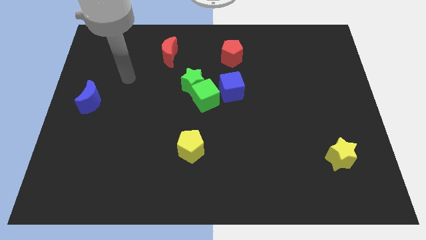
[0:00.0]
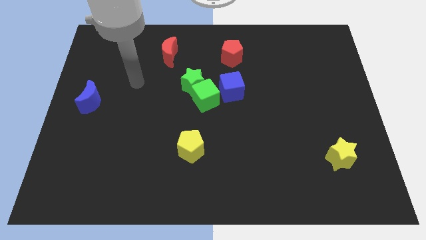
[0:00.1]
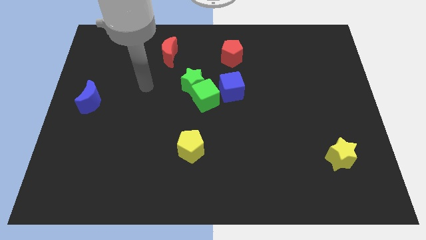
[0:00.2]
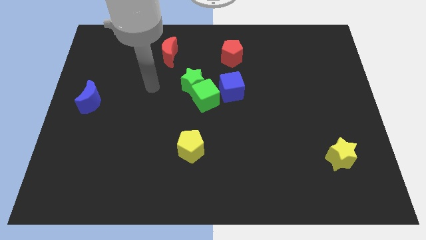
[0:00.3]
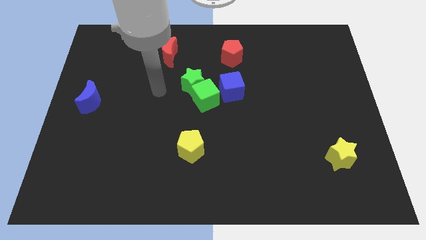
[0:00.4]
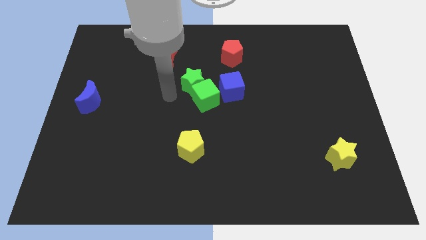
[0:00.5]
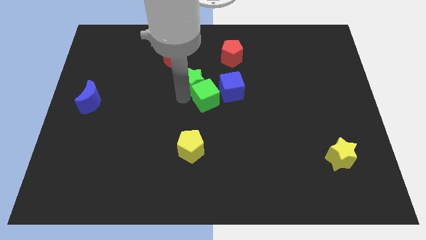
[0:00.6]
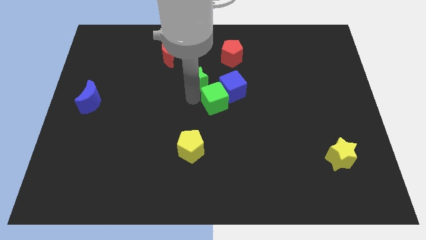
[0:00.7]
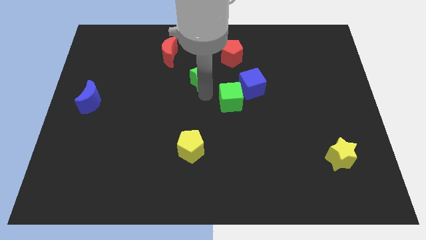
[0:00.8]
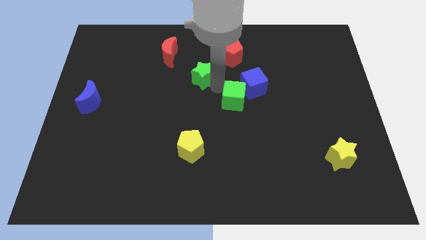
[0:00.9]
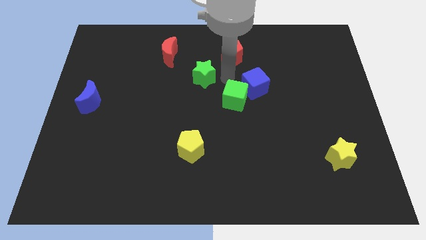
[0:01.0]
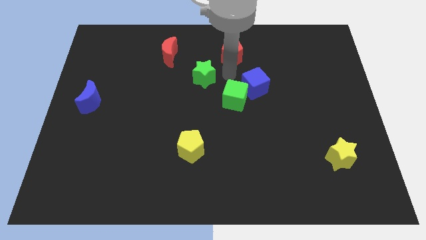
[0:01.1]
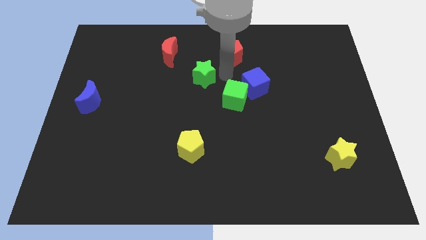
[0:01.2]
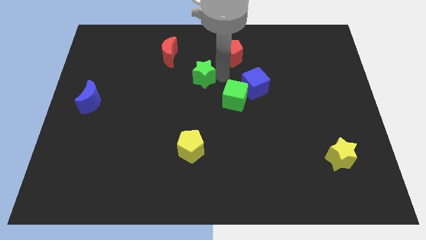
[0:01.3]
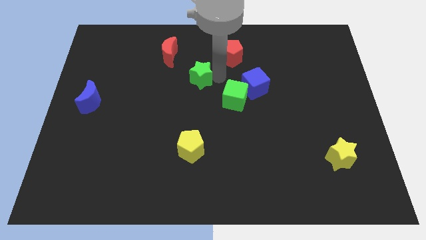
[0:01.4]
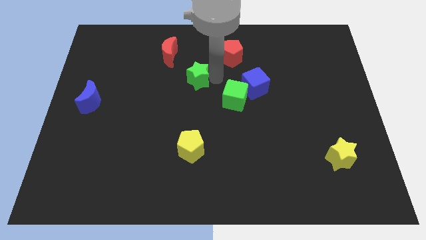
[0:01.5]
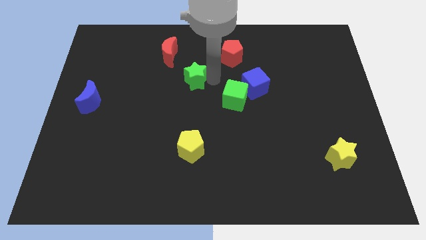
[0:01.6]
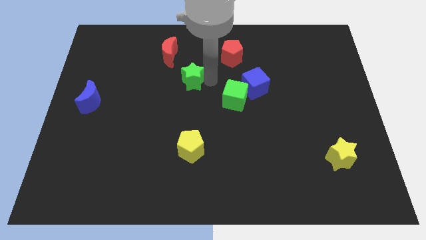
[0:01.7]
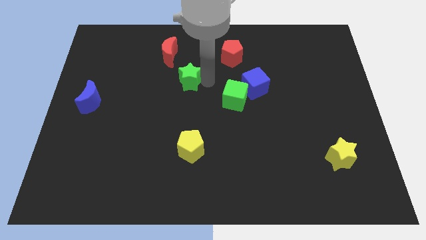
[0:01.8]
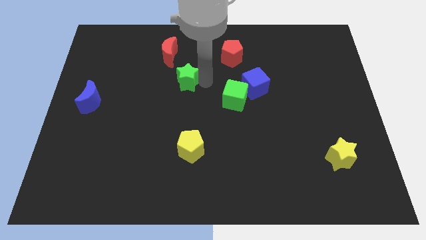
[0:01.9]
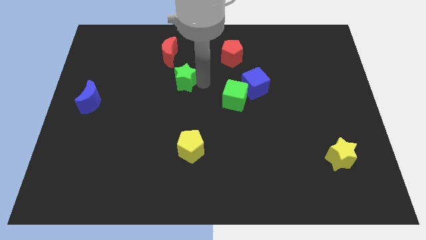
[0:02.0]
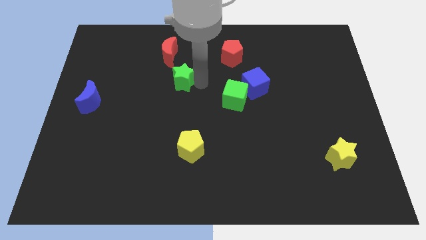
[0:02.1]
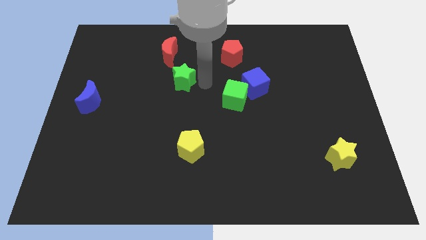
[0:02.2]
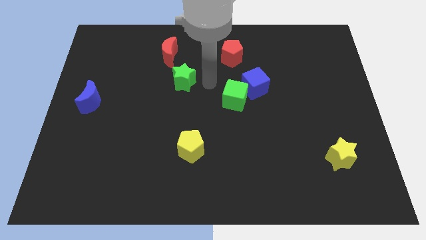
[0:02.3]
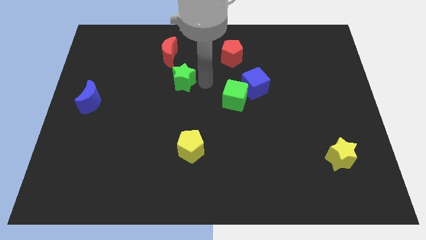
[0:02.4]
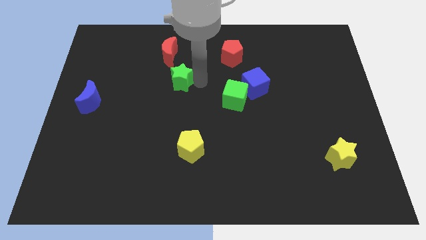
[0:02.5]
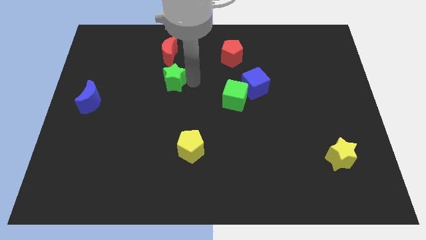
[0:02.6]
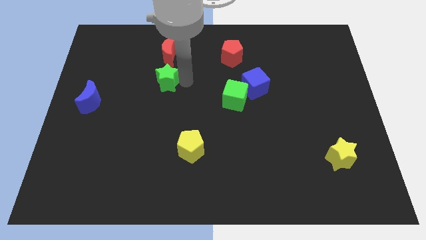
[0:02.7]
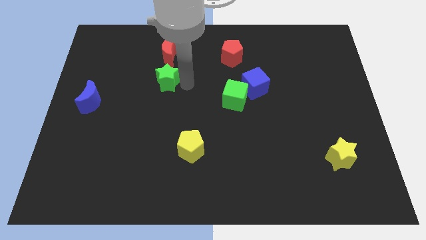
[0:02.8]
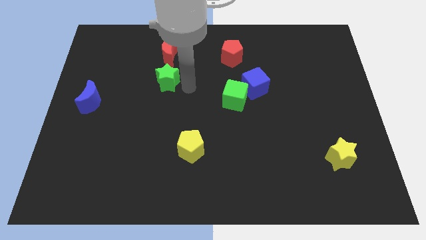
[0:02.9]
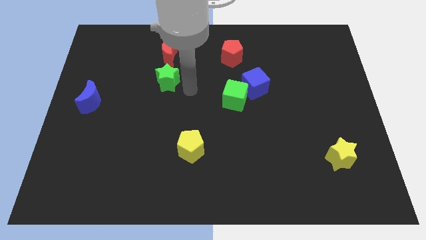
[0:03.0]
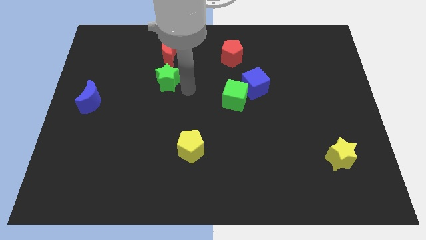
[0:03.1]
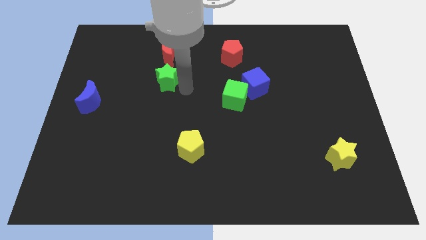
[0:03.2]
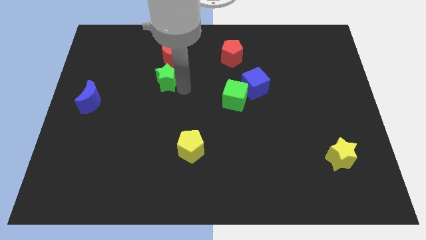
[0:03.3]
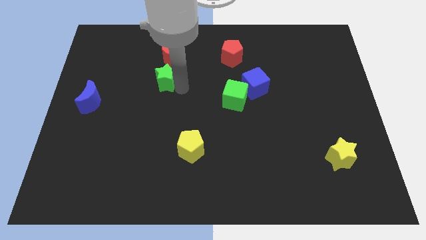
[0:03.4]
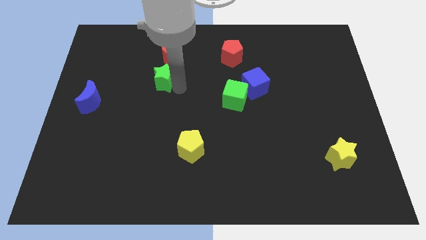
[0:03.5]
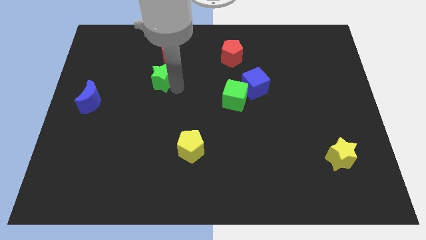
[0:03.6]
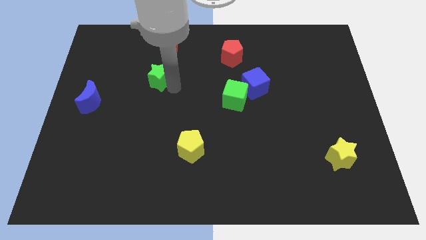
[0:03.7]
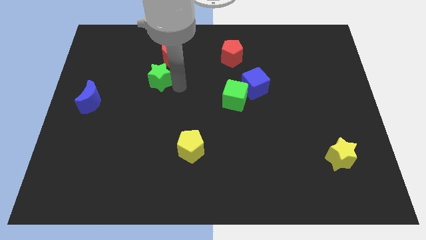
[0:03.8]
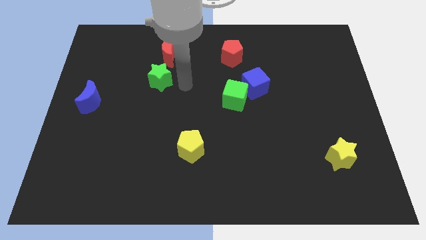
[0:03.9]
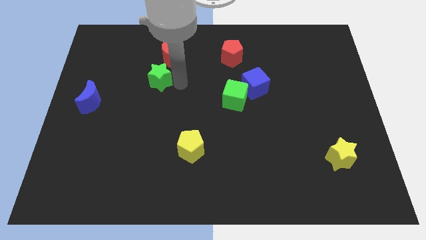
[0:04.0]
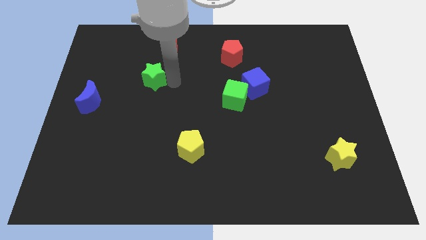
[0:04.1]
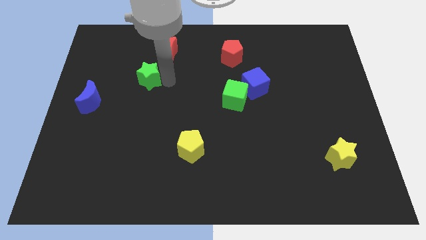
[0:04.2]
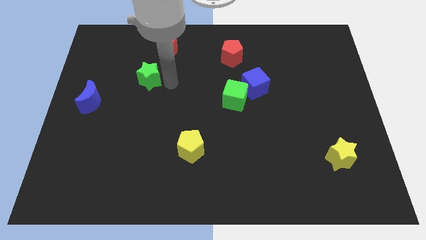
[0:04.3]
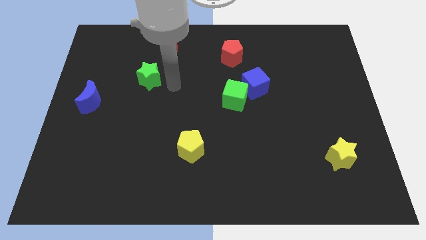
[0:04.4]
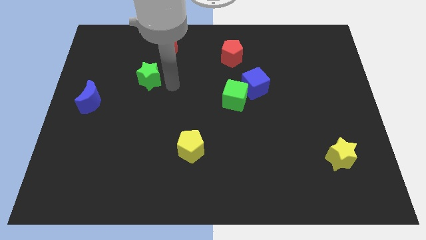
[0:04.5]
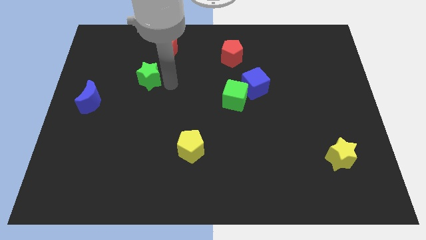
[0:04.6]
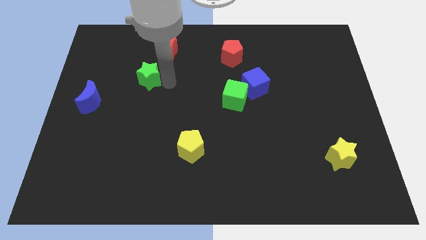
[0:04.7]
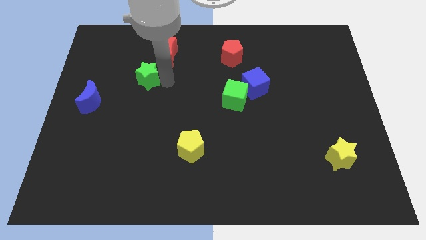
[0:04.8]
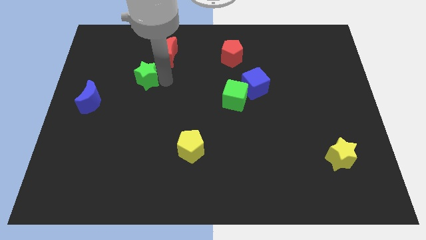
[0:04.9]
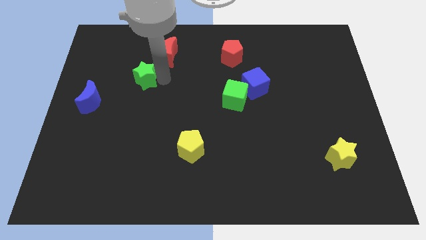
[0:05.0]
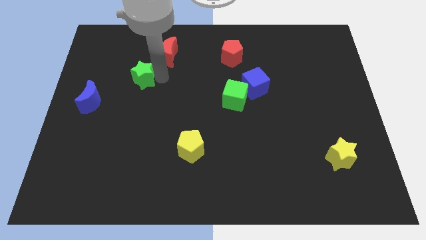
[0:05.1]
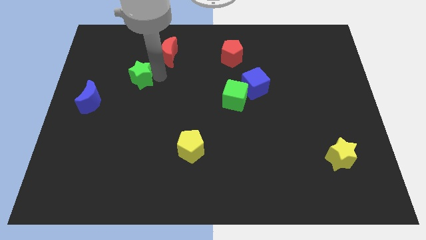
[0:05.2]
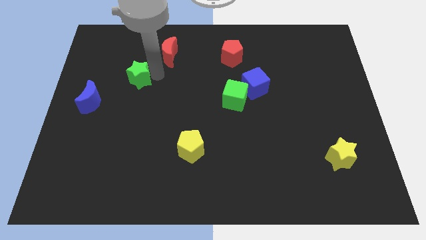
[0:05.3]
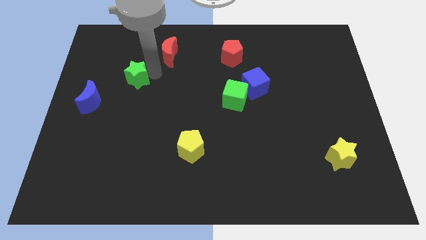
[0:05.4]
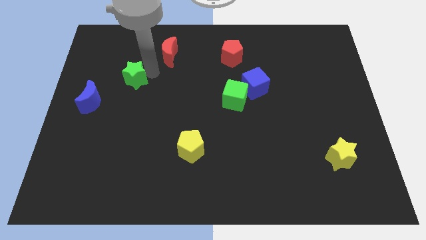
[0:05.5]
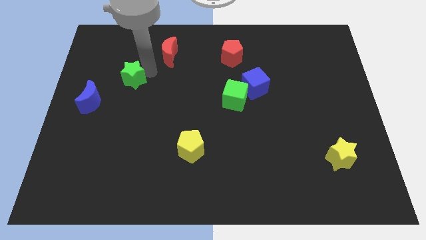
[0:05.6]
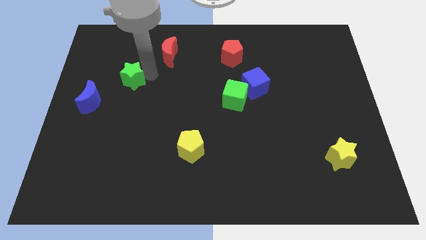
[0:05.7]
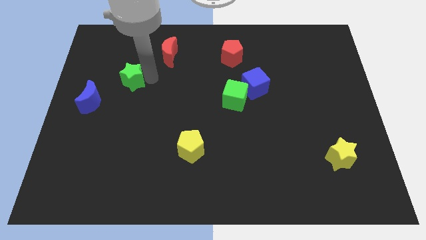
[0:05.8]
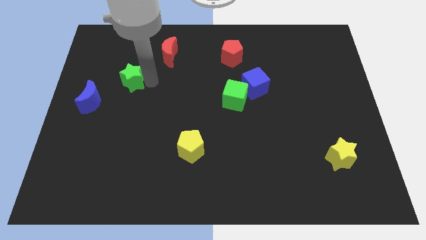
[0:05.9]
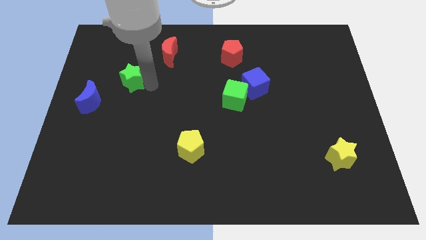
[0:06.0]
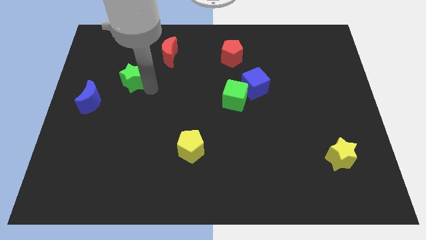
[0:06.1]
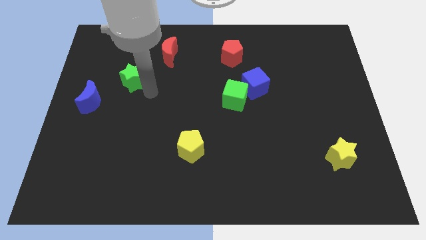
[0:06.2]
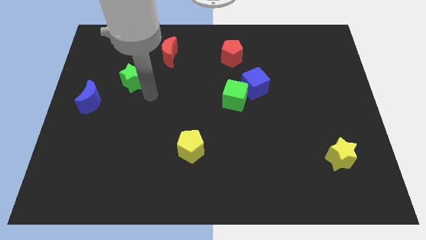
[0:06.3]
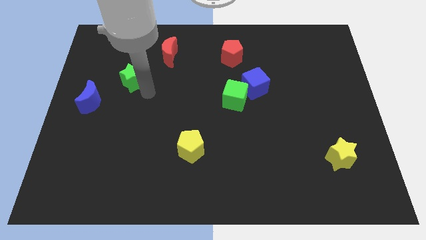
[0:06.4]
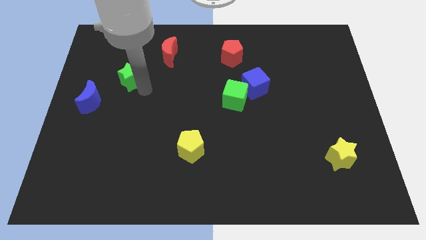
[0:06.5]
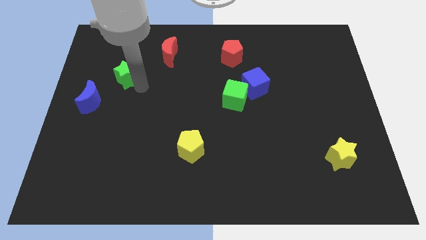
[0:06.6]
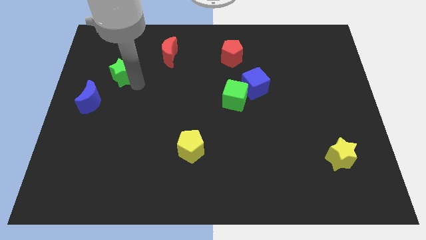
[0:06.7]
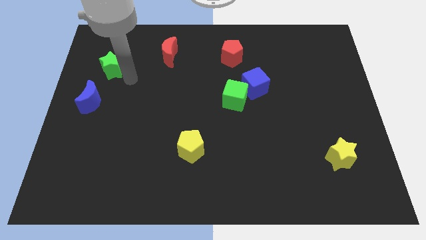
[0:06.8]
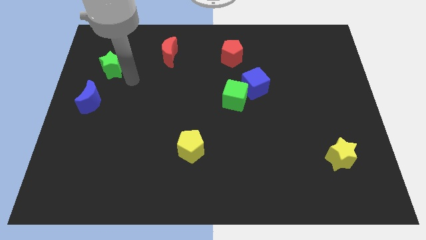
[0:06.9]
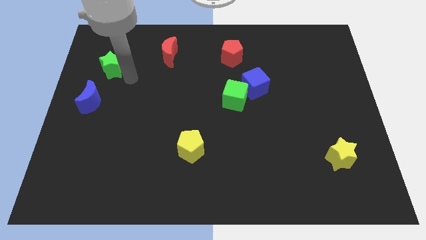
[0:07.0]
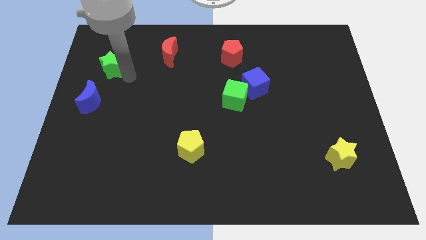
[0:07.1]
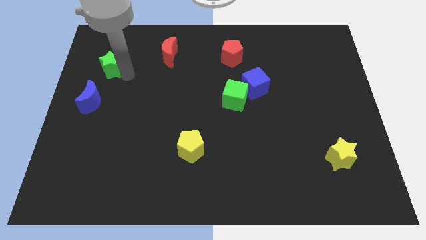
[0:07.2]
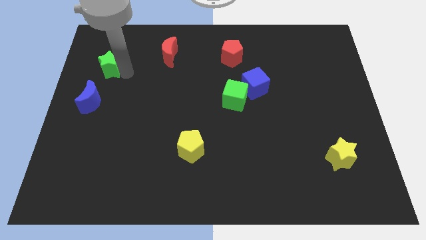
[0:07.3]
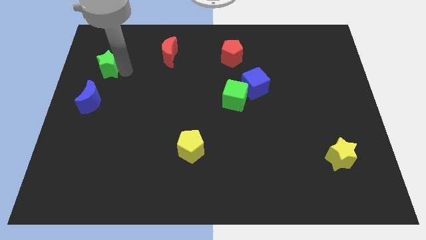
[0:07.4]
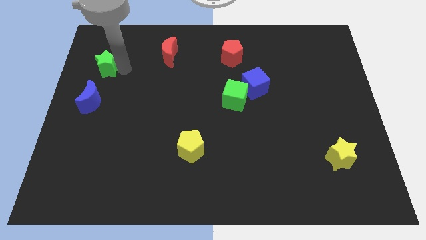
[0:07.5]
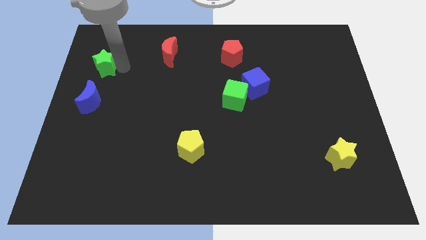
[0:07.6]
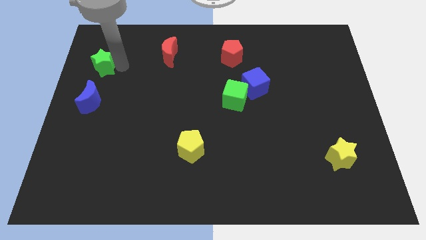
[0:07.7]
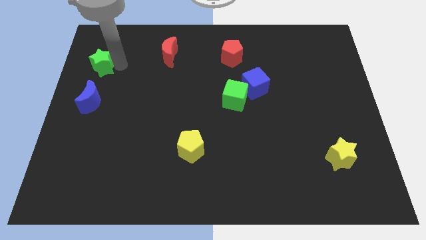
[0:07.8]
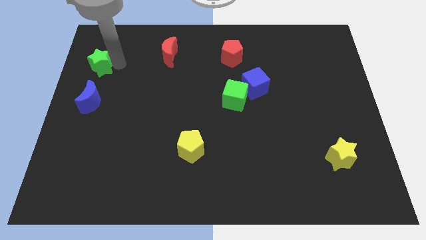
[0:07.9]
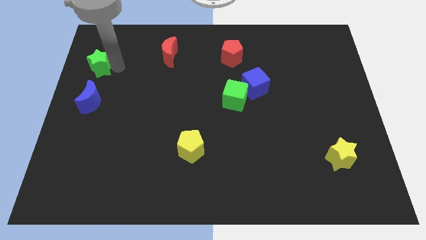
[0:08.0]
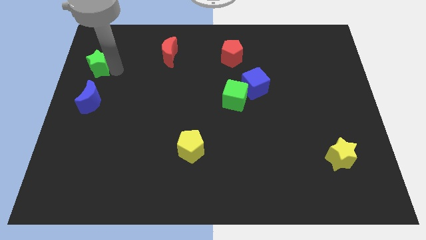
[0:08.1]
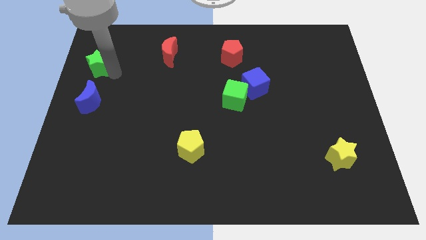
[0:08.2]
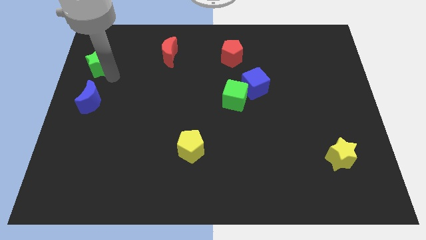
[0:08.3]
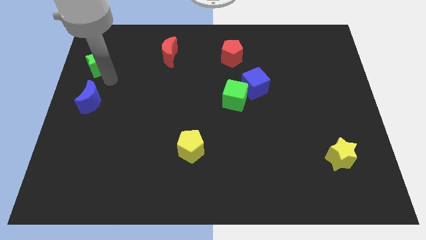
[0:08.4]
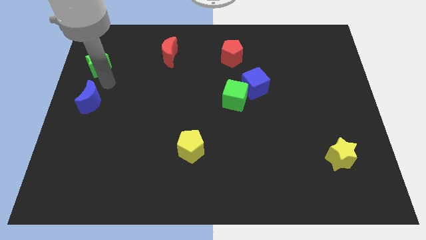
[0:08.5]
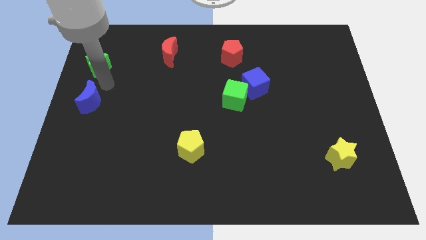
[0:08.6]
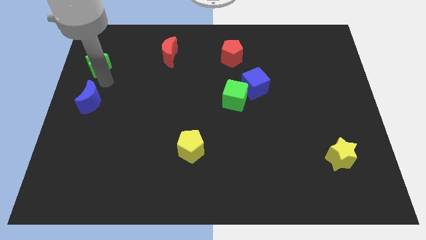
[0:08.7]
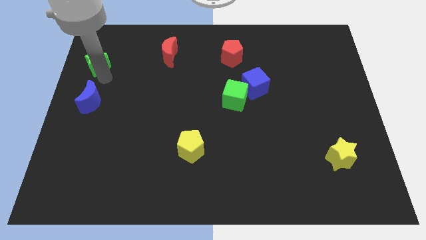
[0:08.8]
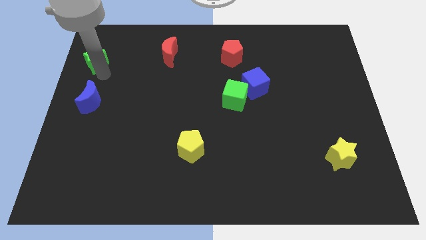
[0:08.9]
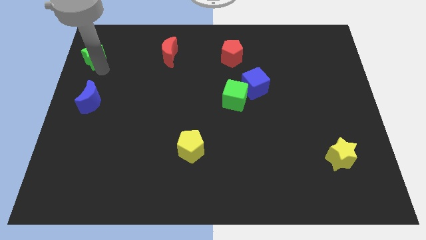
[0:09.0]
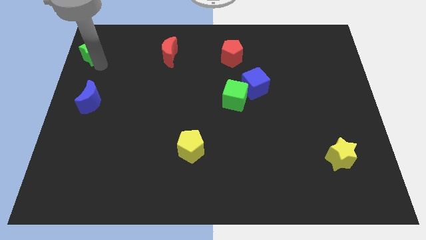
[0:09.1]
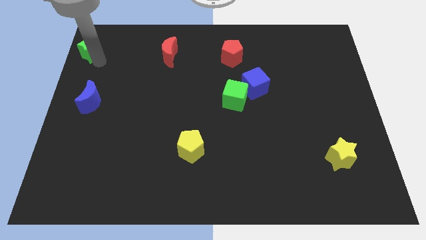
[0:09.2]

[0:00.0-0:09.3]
slide the green star to the top left
